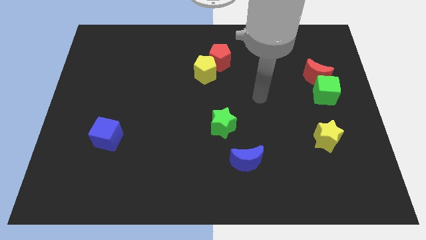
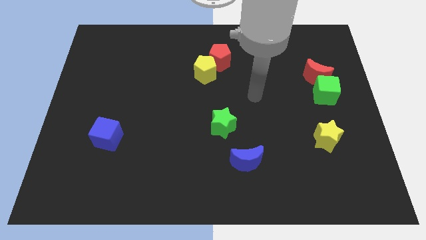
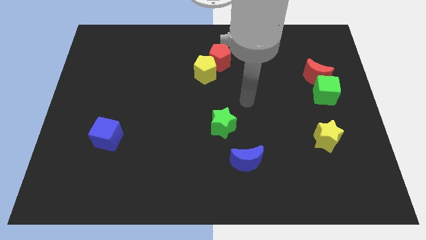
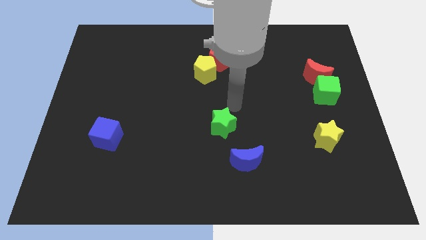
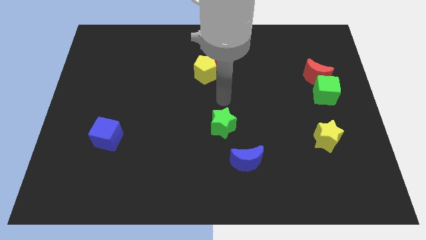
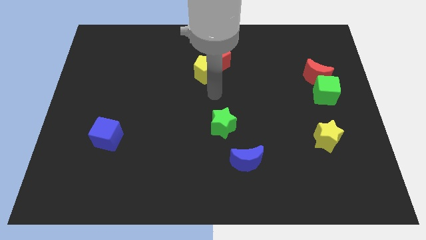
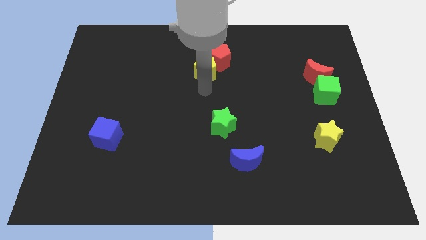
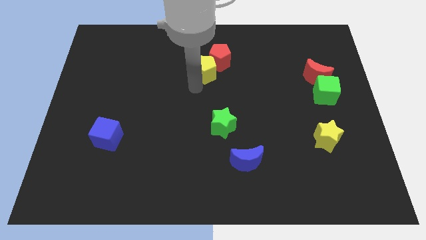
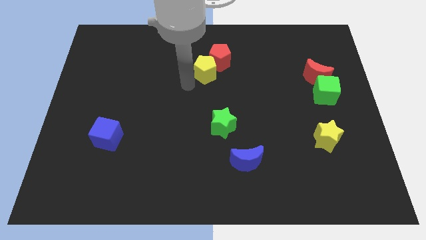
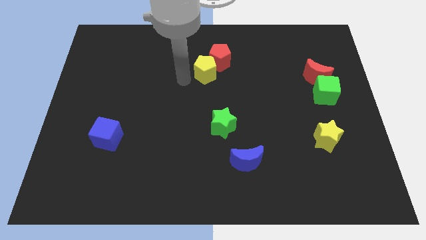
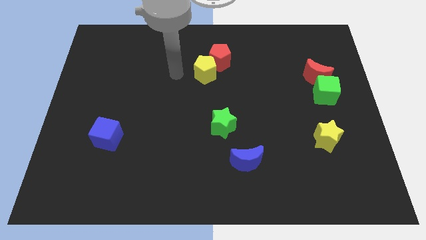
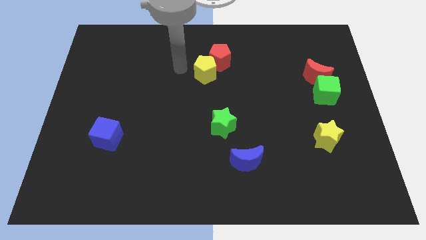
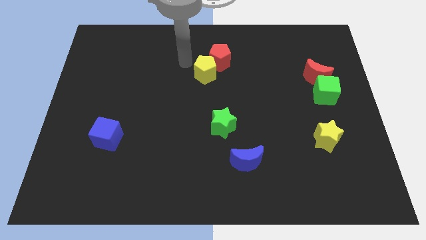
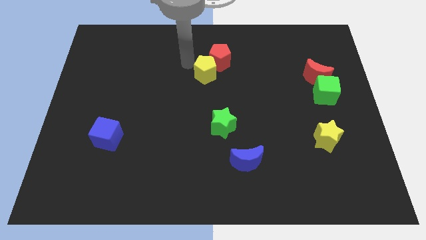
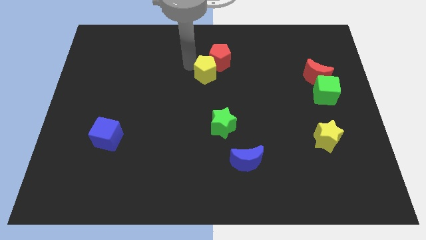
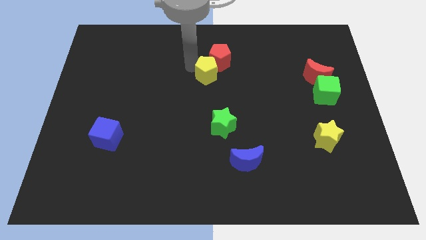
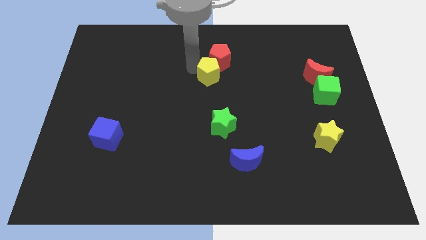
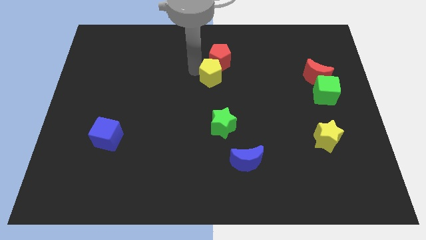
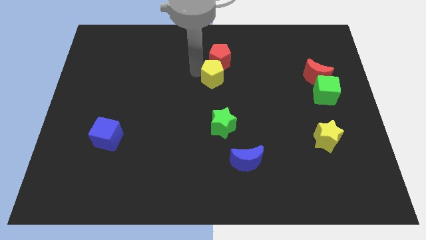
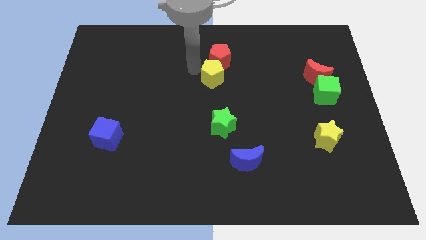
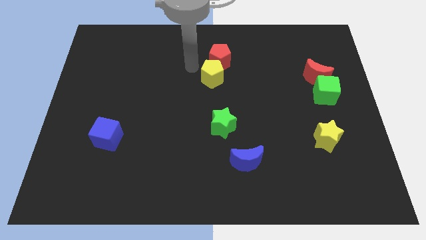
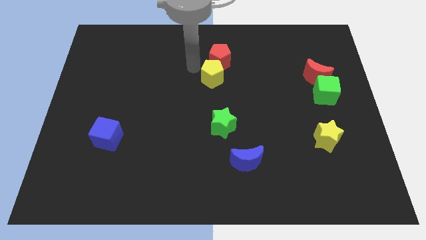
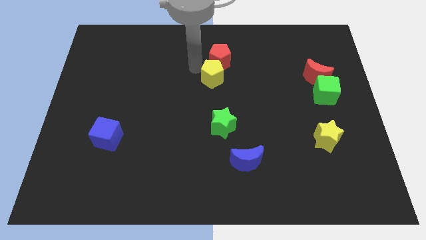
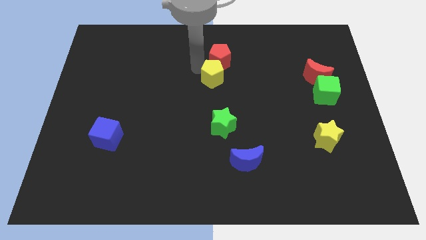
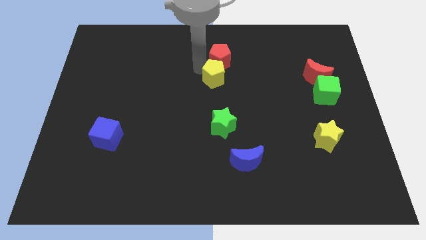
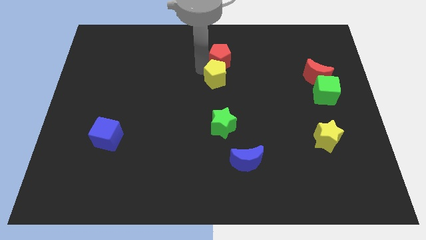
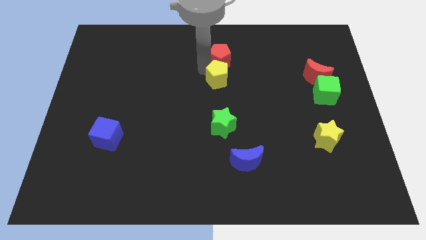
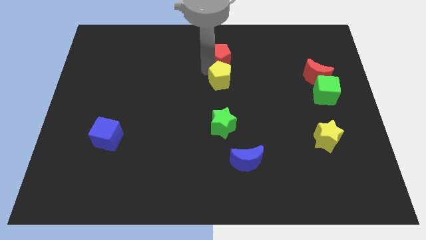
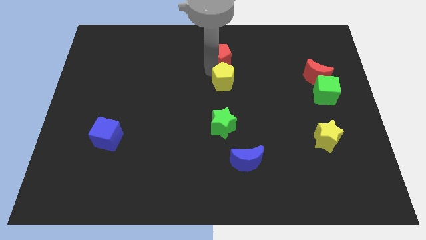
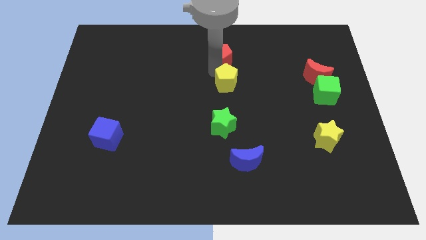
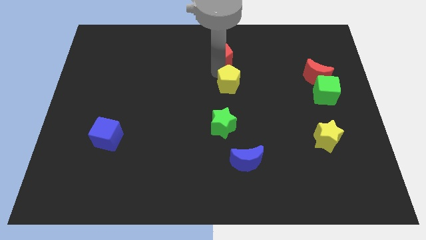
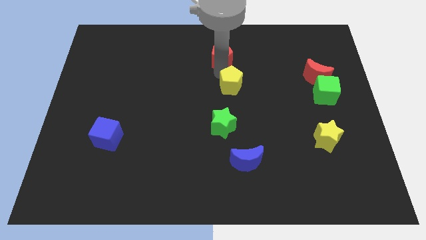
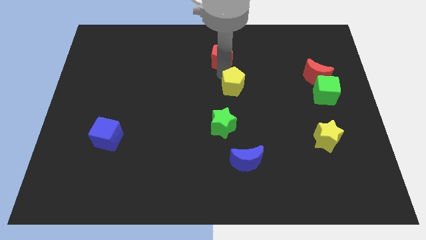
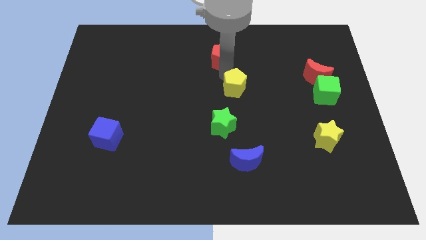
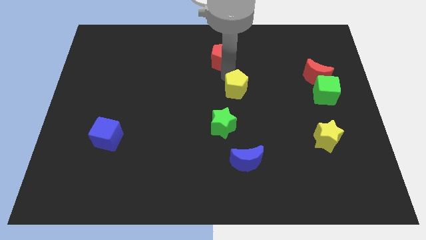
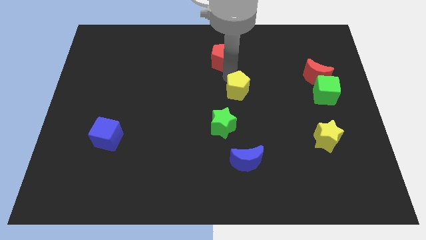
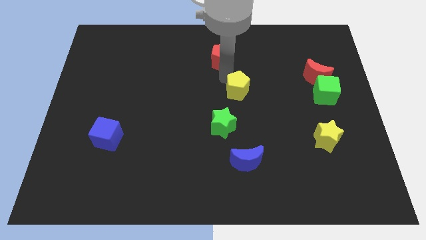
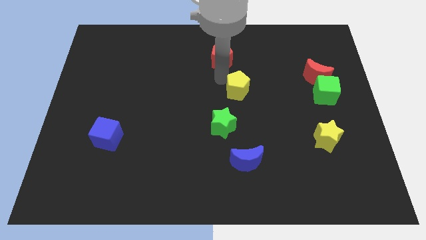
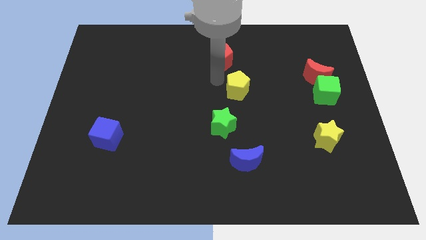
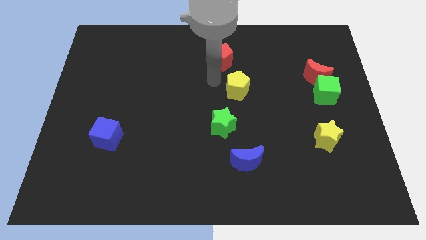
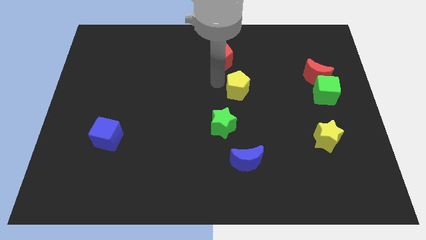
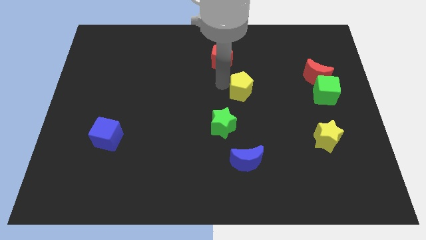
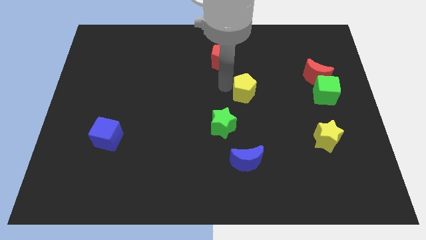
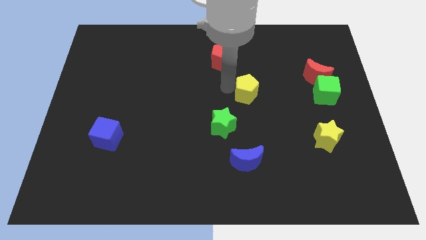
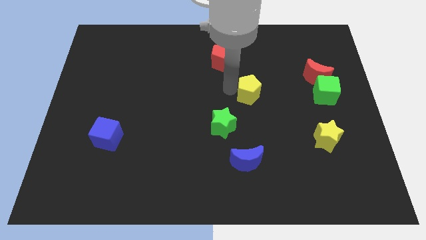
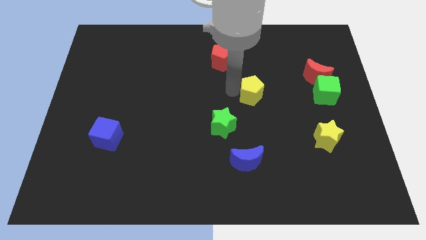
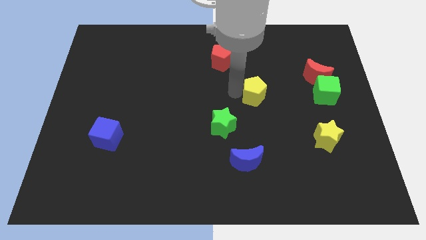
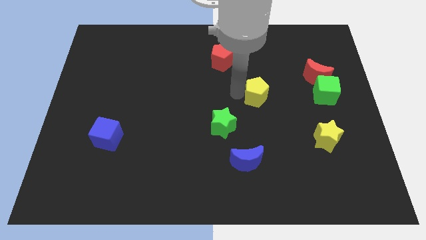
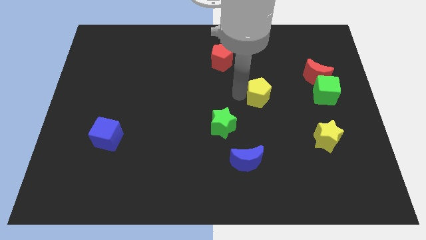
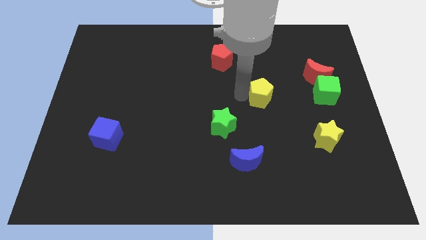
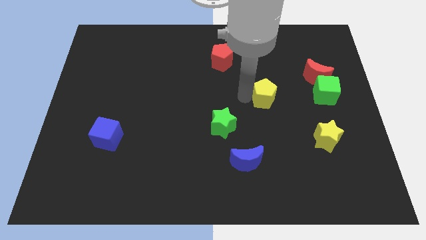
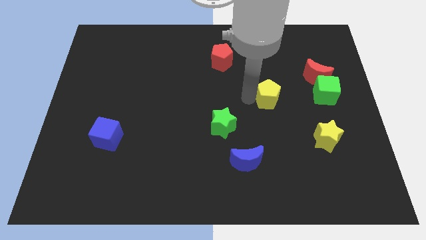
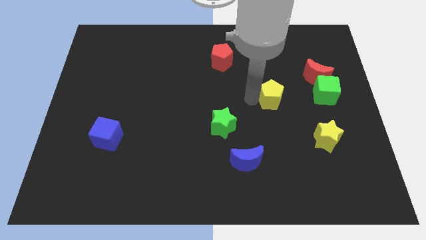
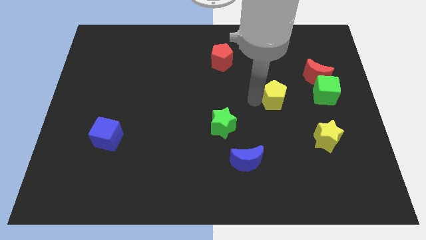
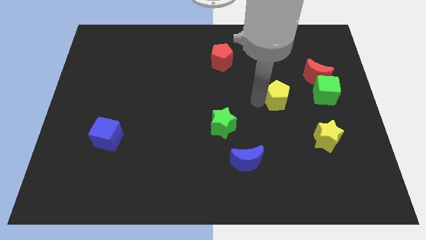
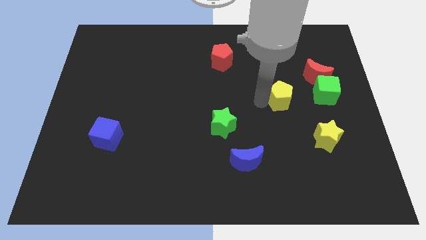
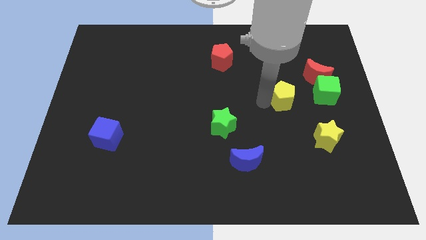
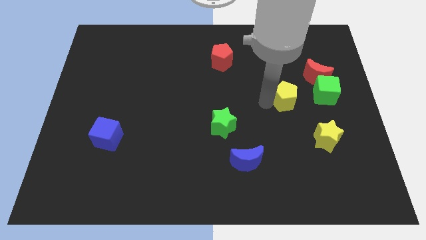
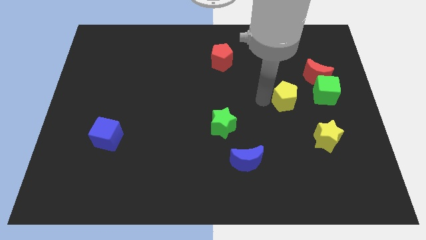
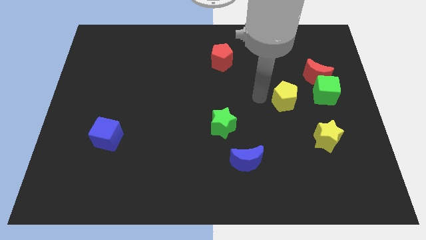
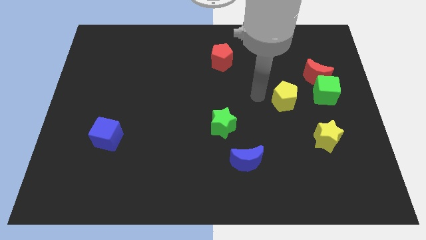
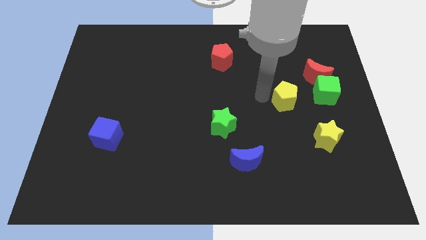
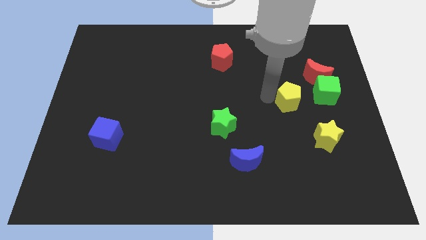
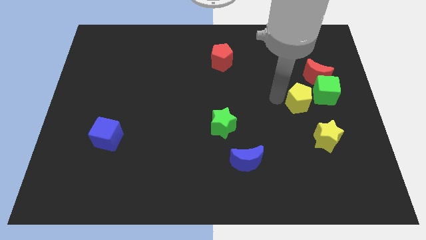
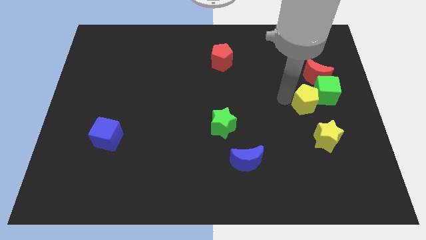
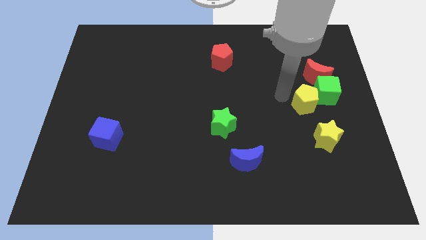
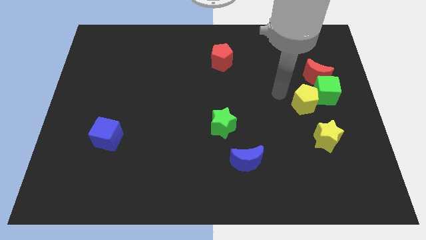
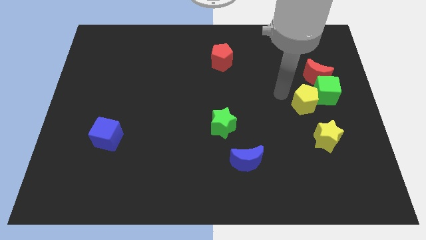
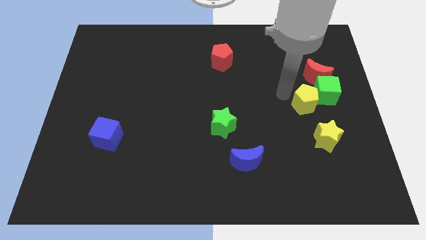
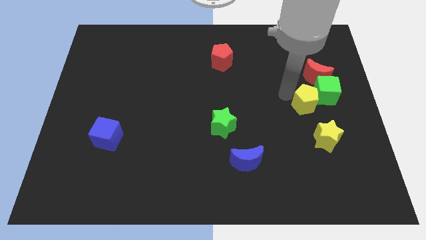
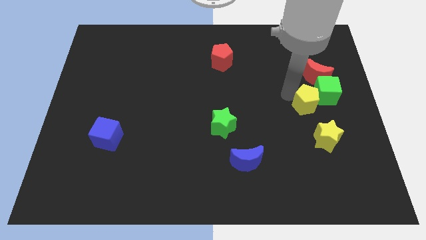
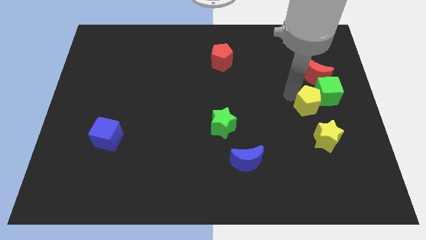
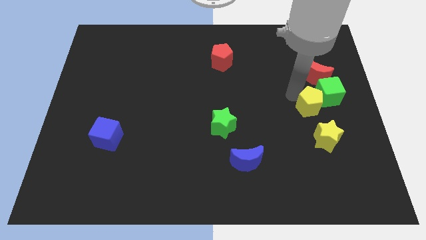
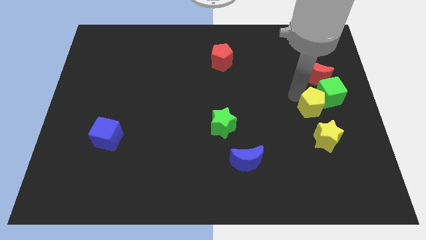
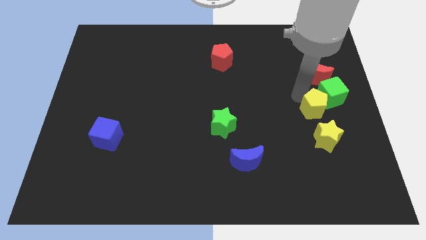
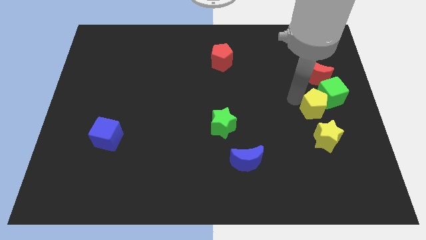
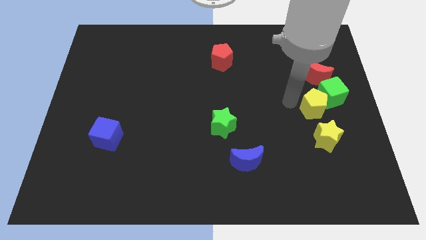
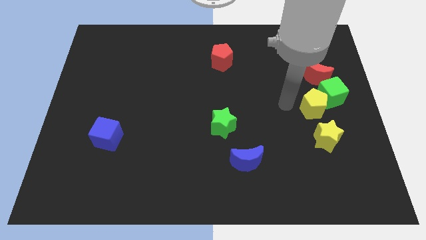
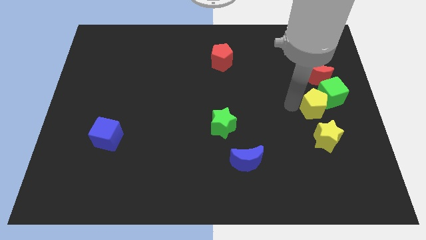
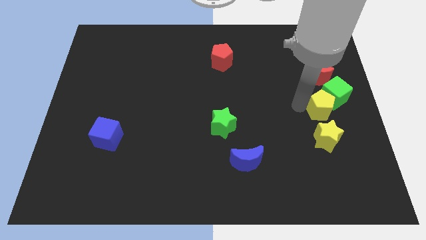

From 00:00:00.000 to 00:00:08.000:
slide the yellow pentagon to the right side
